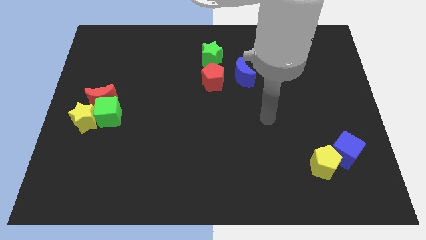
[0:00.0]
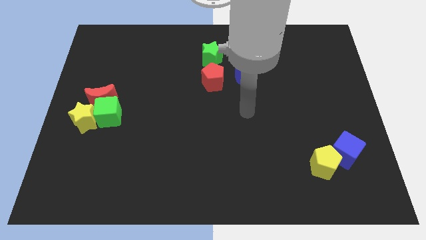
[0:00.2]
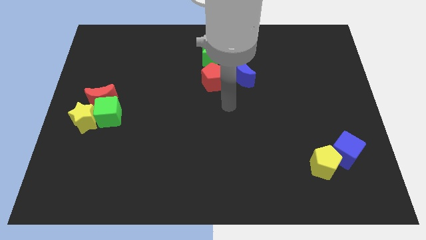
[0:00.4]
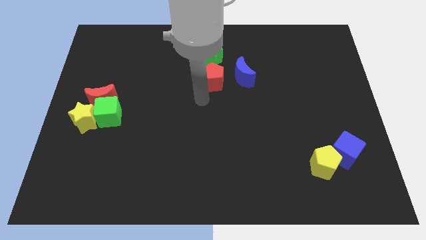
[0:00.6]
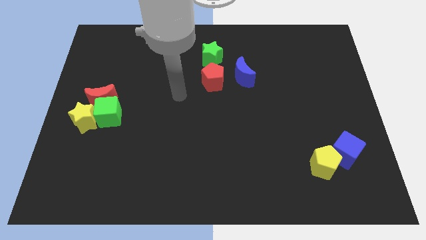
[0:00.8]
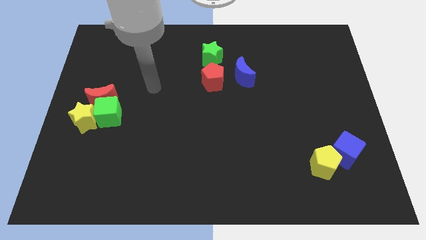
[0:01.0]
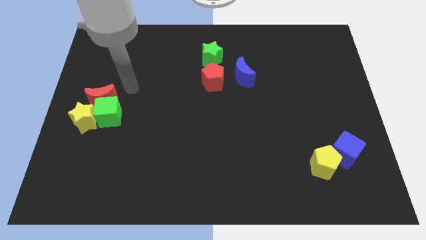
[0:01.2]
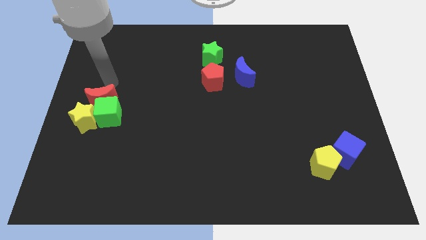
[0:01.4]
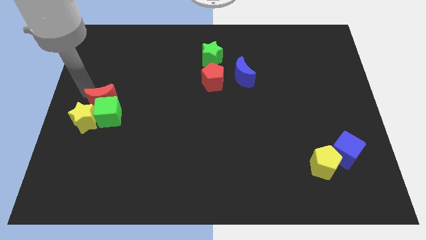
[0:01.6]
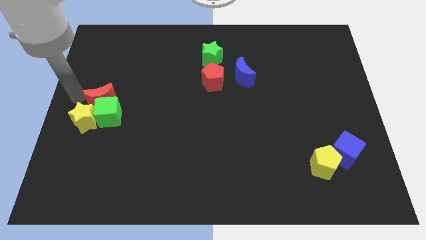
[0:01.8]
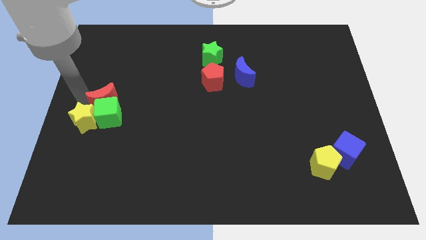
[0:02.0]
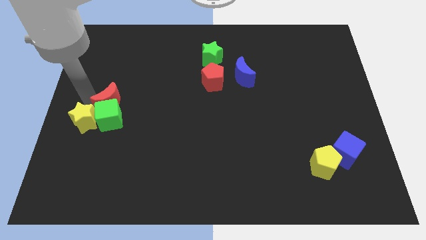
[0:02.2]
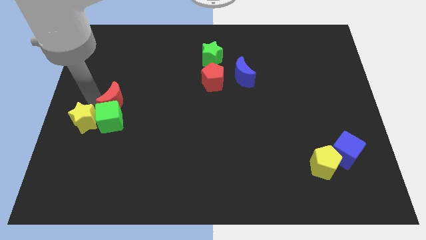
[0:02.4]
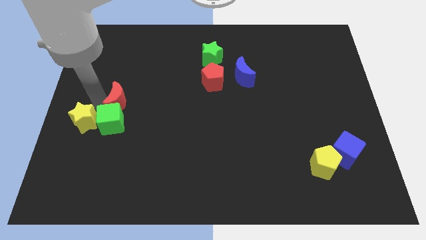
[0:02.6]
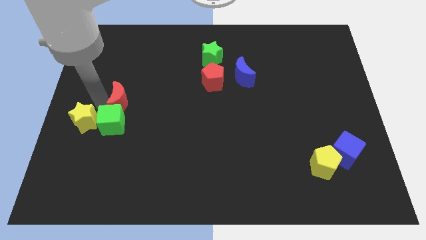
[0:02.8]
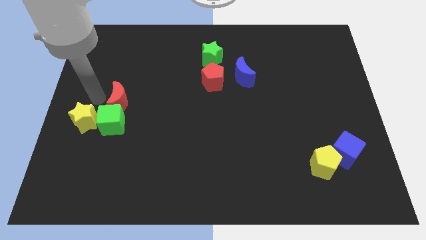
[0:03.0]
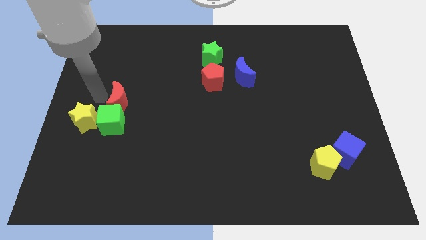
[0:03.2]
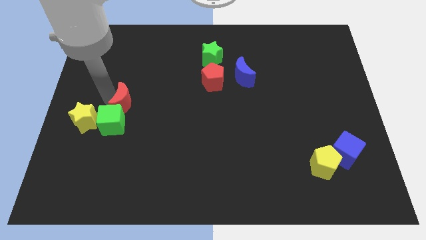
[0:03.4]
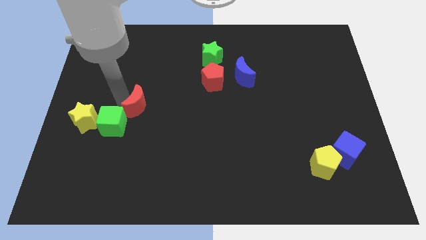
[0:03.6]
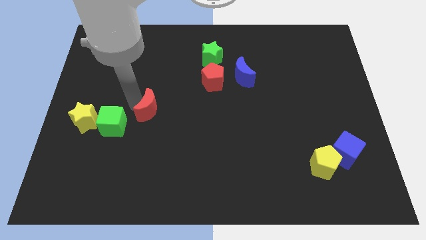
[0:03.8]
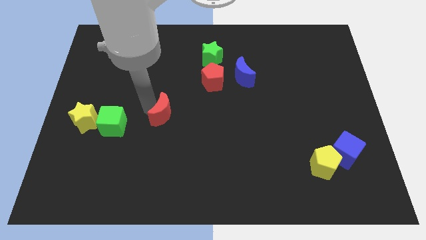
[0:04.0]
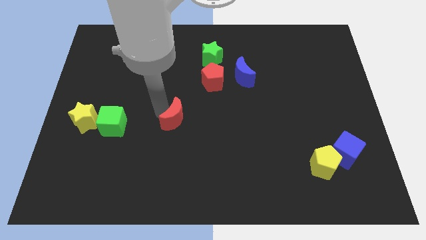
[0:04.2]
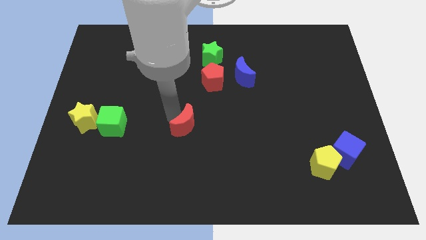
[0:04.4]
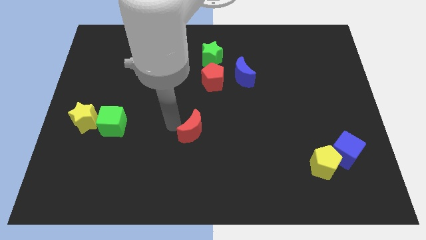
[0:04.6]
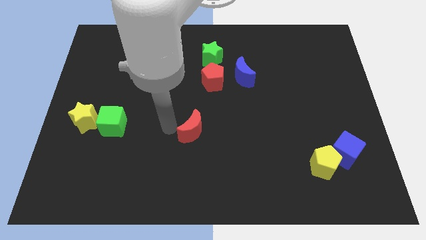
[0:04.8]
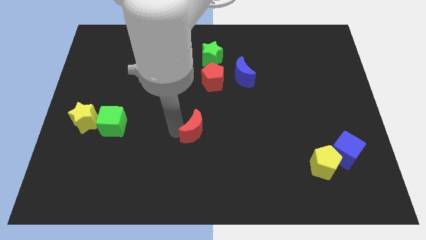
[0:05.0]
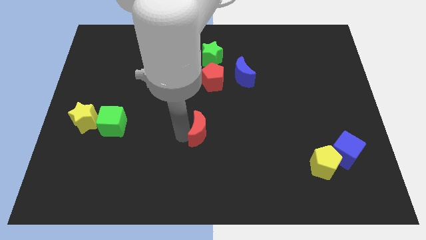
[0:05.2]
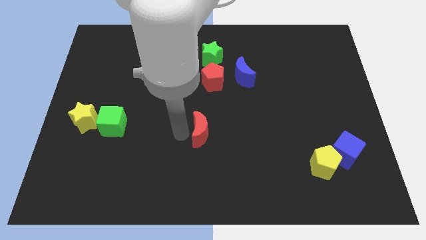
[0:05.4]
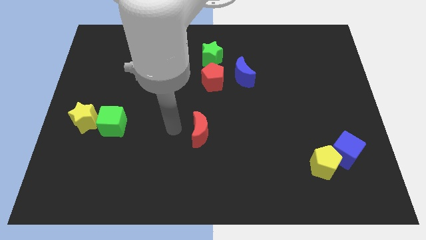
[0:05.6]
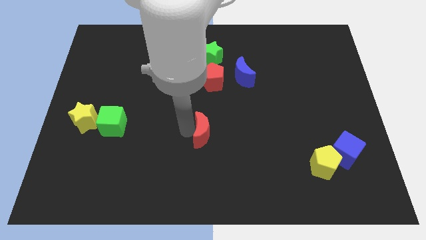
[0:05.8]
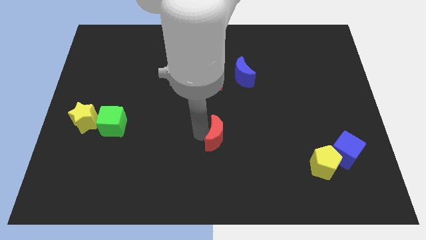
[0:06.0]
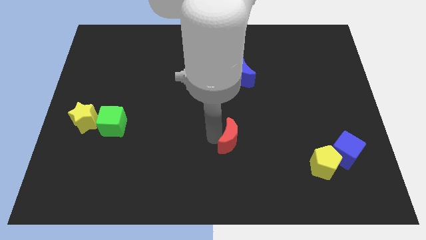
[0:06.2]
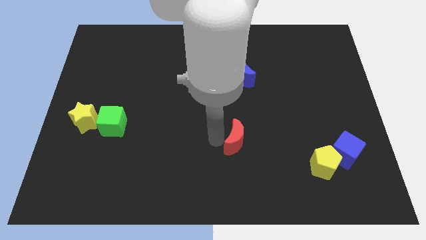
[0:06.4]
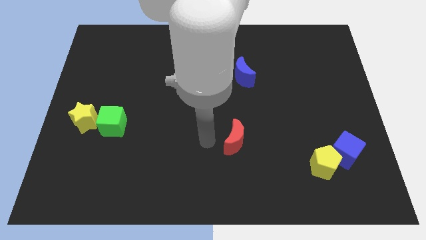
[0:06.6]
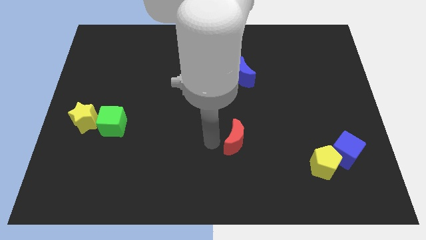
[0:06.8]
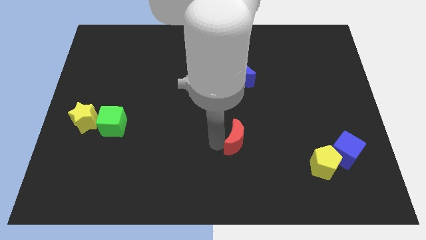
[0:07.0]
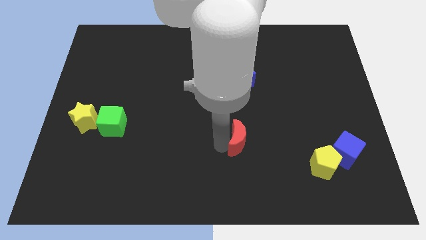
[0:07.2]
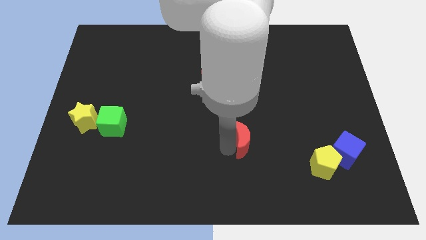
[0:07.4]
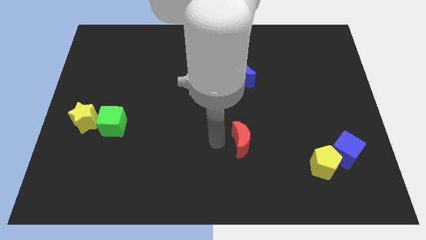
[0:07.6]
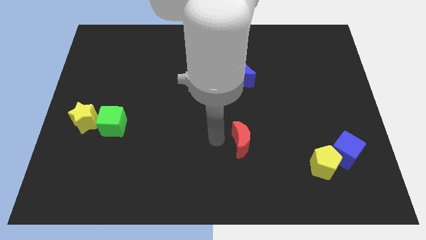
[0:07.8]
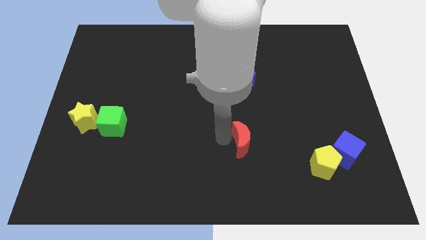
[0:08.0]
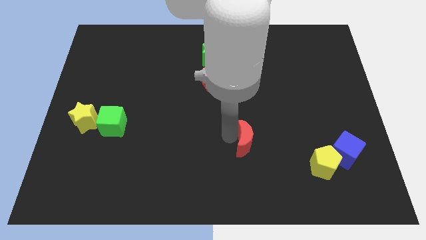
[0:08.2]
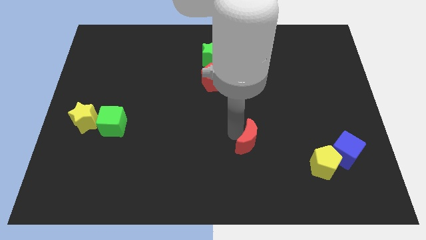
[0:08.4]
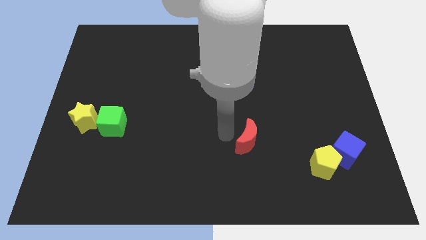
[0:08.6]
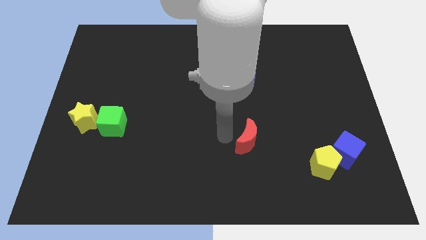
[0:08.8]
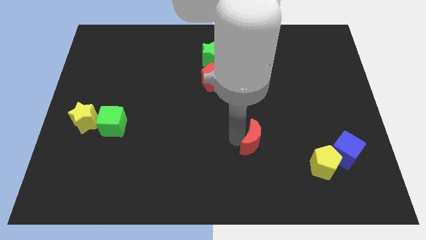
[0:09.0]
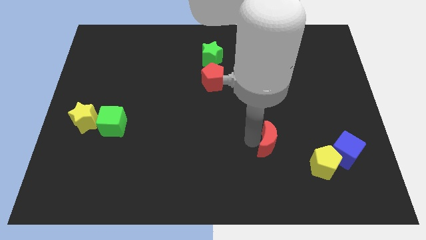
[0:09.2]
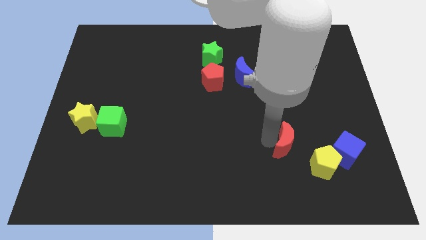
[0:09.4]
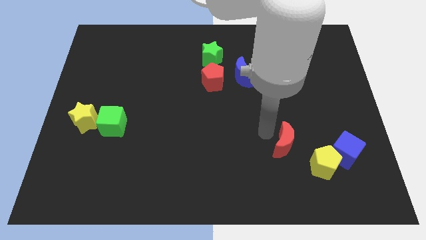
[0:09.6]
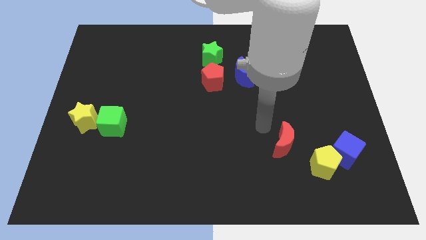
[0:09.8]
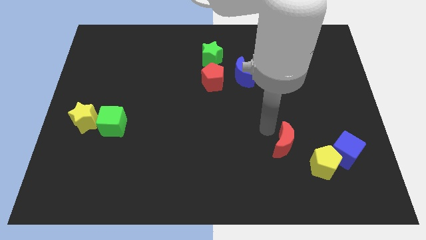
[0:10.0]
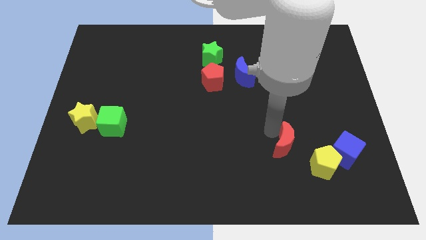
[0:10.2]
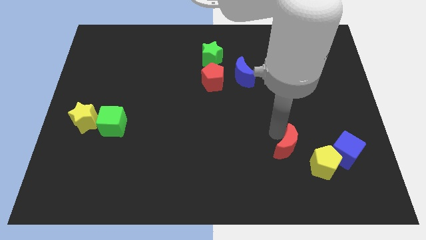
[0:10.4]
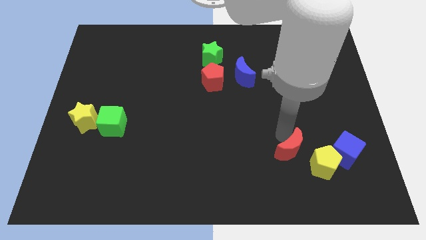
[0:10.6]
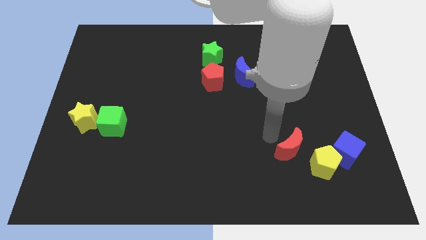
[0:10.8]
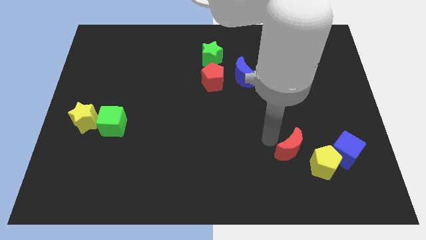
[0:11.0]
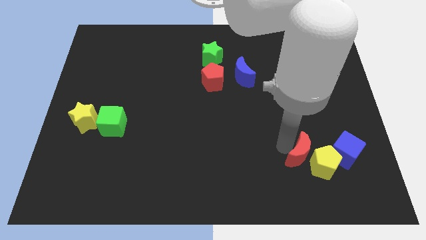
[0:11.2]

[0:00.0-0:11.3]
move the red moon towards the yellow pentagon

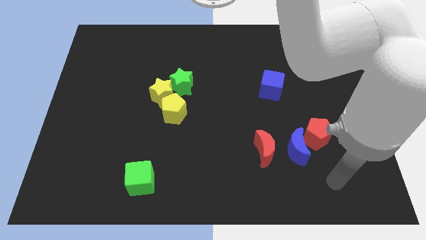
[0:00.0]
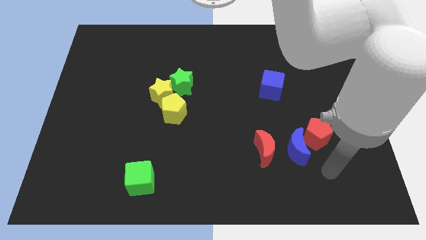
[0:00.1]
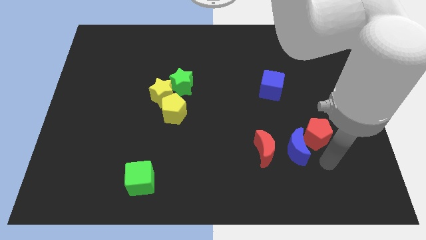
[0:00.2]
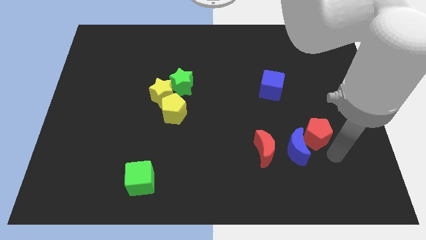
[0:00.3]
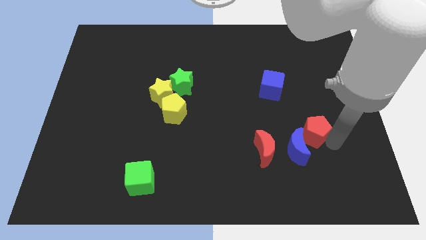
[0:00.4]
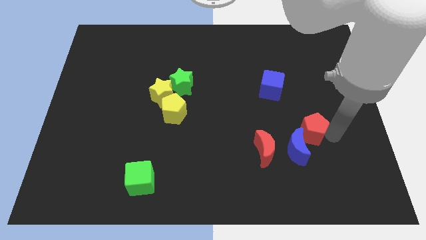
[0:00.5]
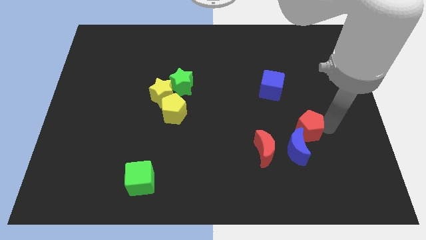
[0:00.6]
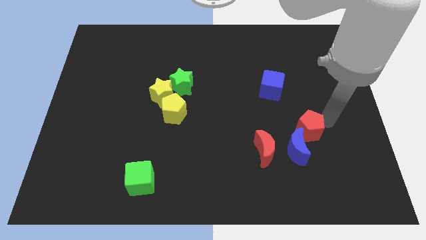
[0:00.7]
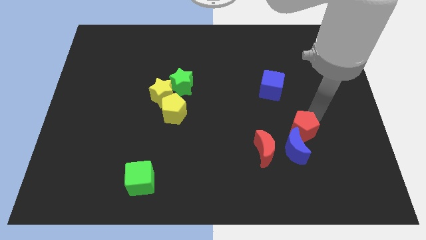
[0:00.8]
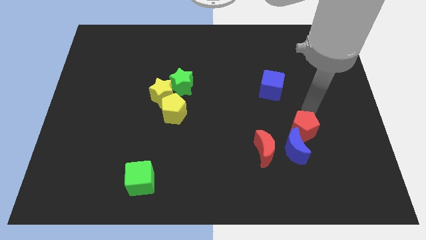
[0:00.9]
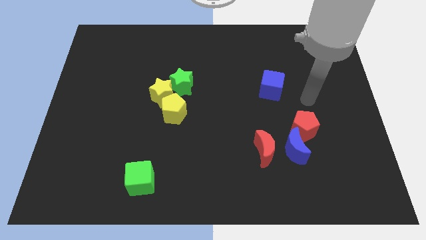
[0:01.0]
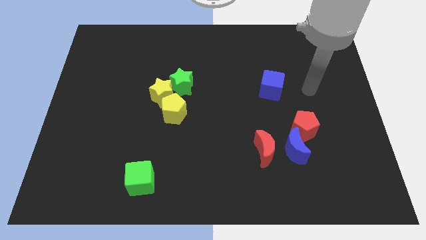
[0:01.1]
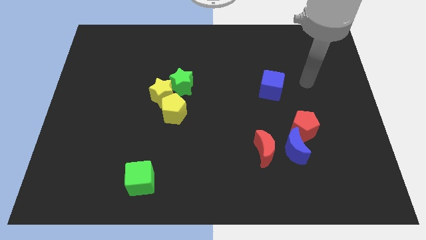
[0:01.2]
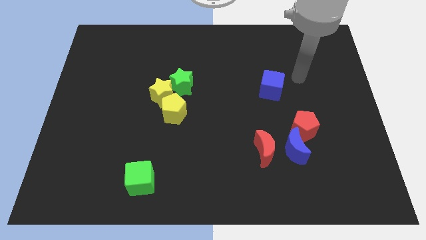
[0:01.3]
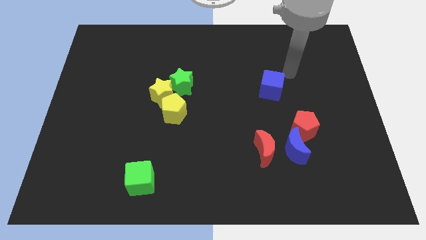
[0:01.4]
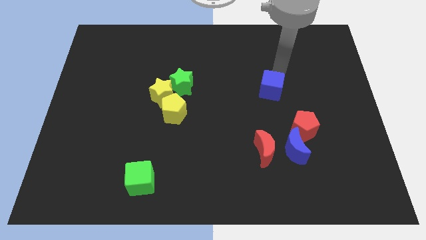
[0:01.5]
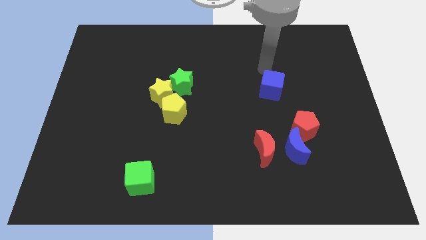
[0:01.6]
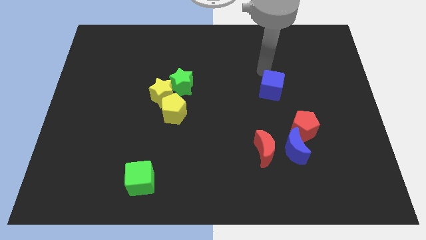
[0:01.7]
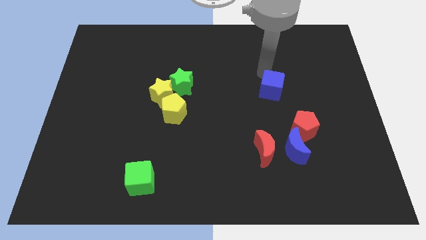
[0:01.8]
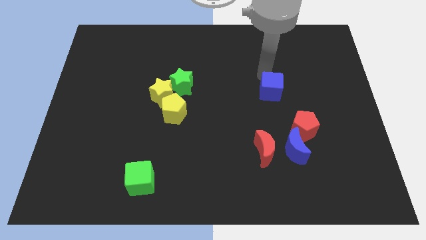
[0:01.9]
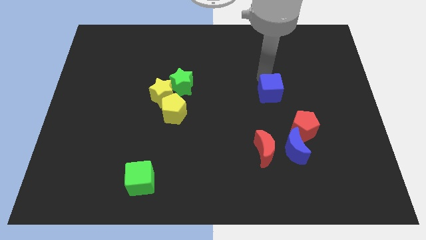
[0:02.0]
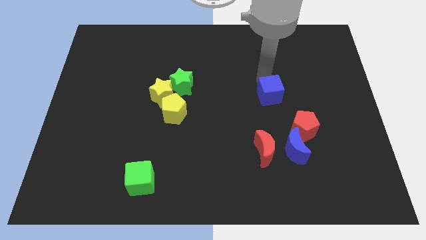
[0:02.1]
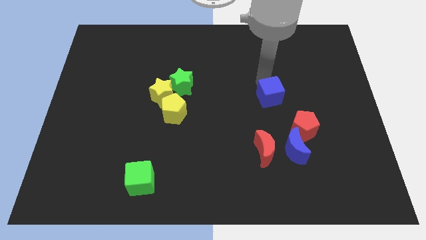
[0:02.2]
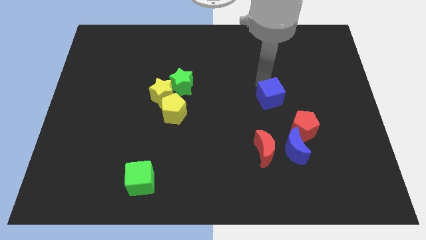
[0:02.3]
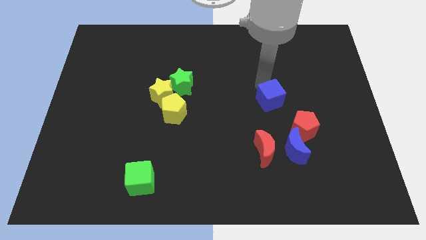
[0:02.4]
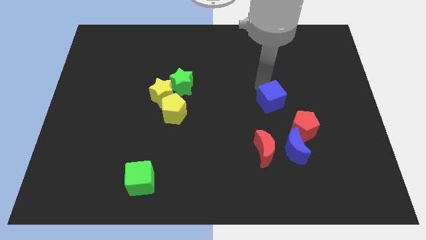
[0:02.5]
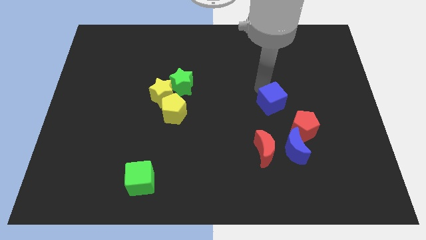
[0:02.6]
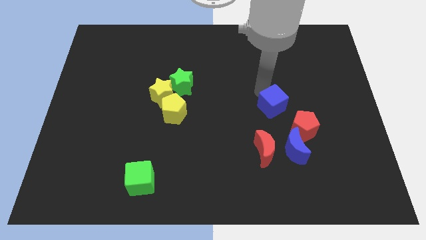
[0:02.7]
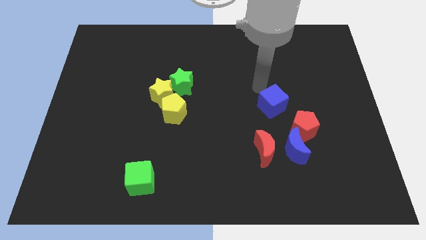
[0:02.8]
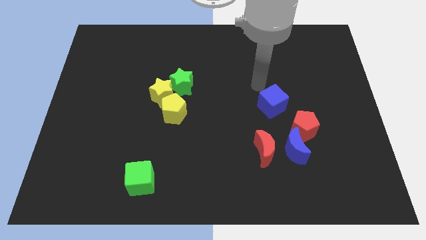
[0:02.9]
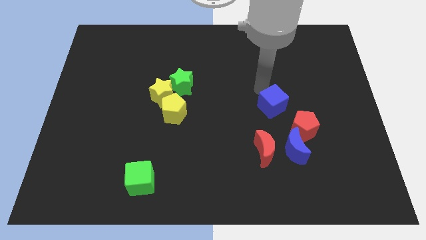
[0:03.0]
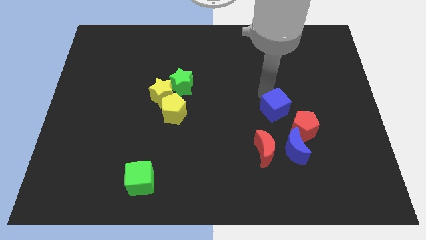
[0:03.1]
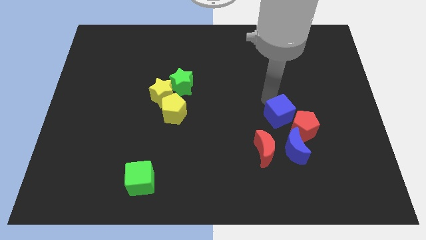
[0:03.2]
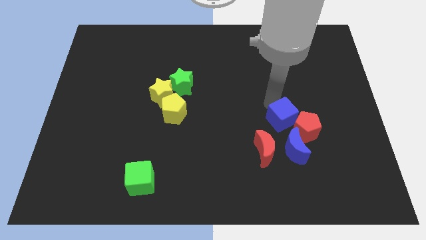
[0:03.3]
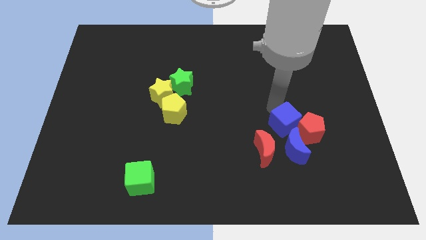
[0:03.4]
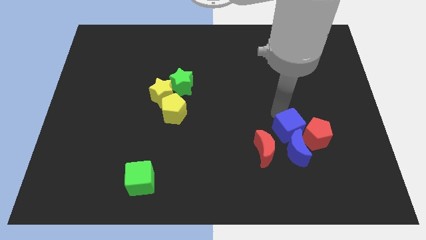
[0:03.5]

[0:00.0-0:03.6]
slide the blue cube towards the blue moon
